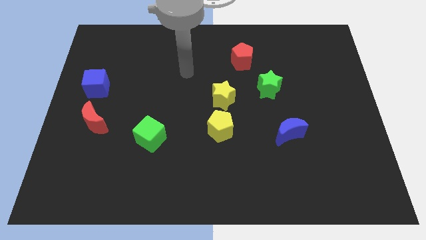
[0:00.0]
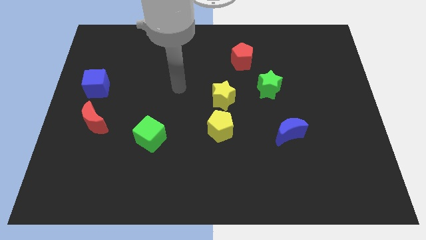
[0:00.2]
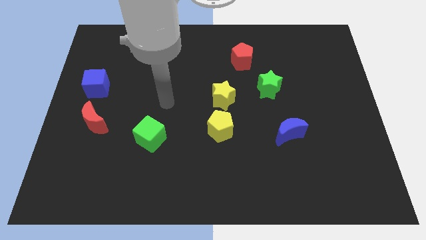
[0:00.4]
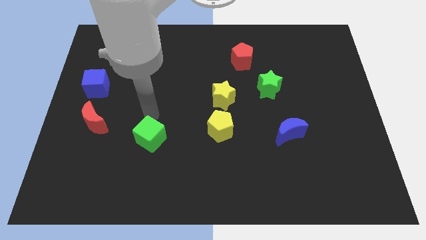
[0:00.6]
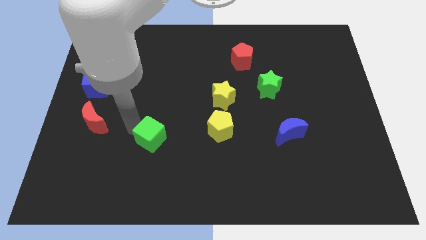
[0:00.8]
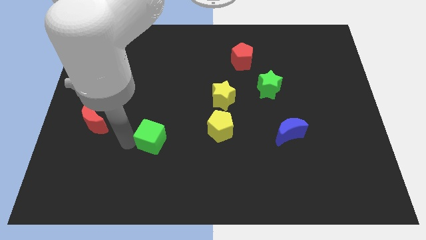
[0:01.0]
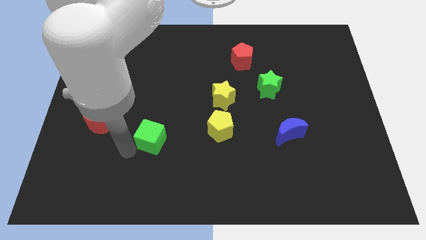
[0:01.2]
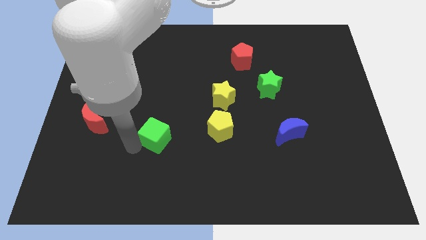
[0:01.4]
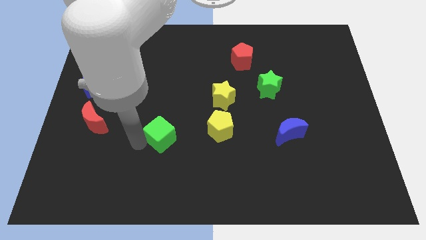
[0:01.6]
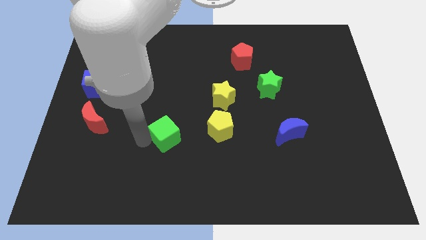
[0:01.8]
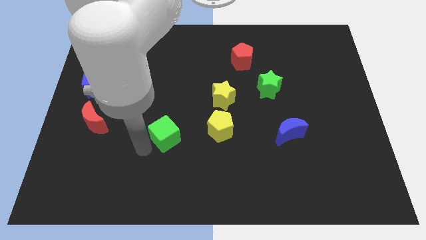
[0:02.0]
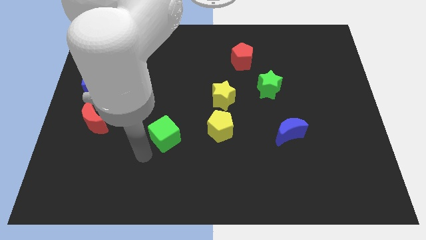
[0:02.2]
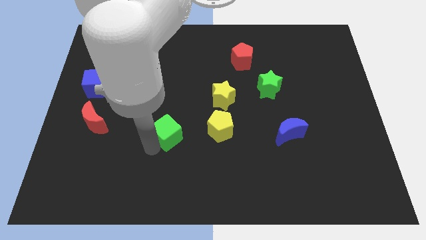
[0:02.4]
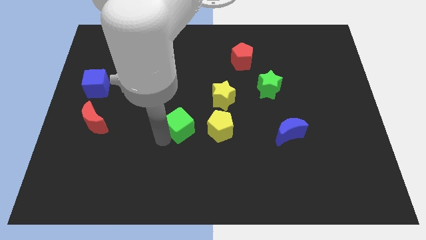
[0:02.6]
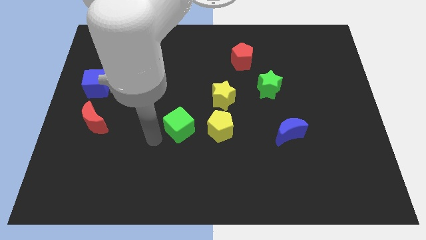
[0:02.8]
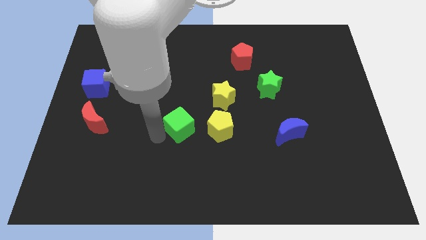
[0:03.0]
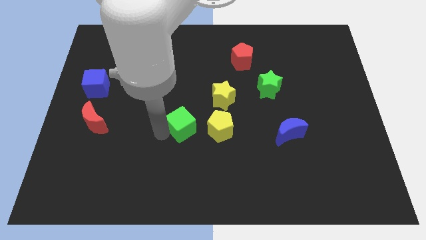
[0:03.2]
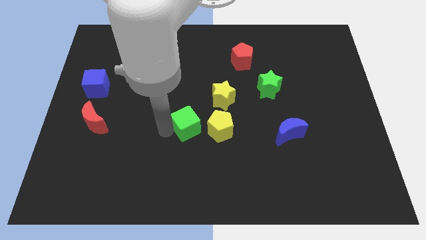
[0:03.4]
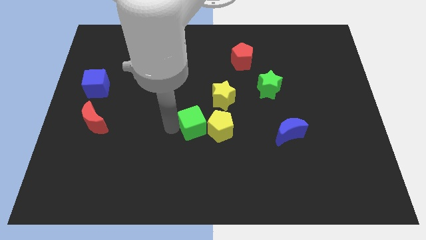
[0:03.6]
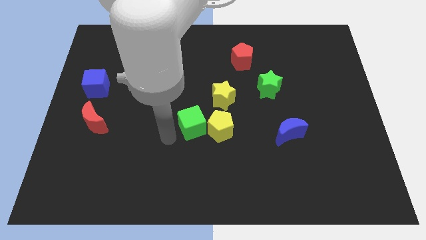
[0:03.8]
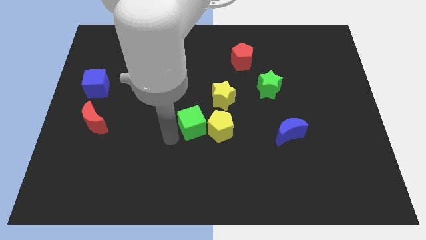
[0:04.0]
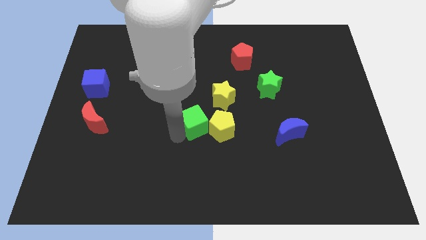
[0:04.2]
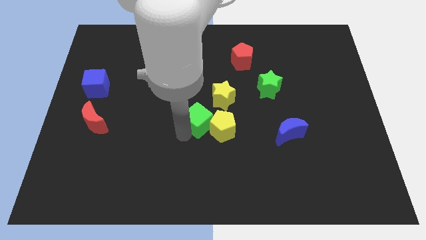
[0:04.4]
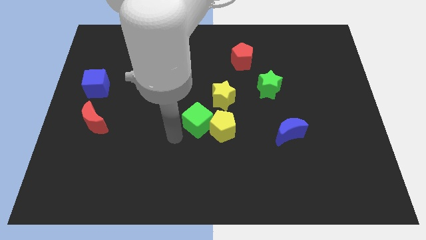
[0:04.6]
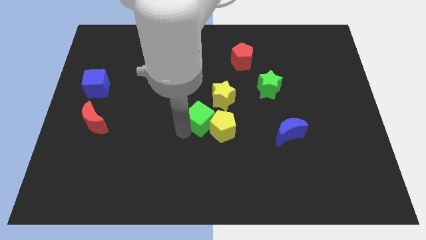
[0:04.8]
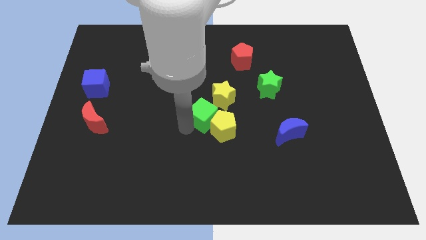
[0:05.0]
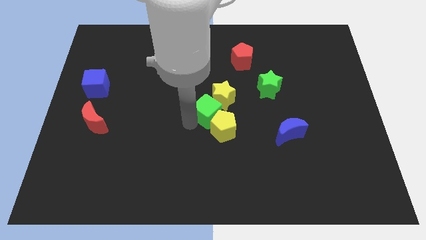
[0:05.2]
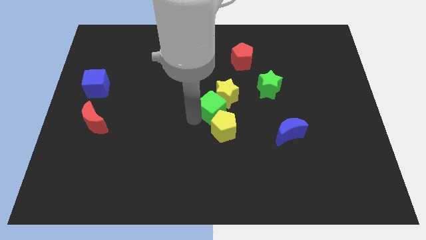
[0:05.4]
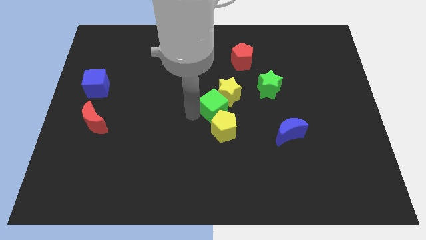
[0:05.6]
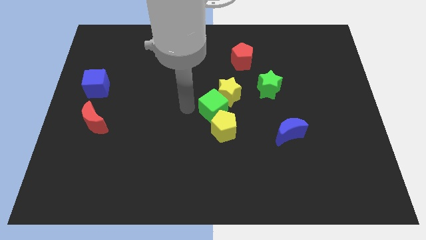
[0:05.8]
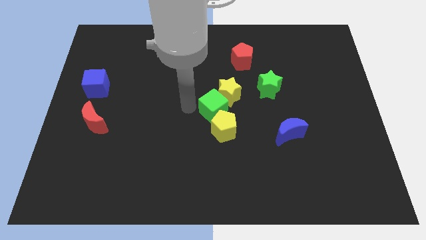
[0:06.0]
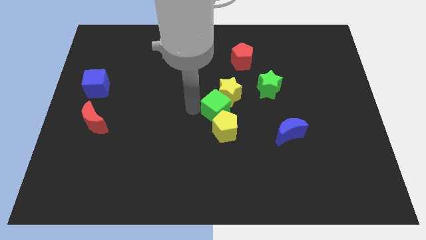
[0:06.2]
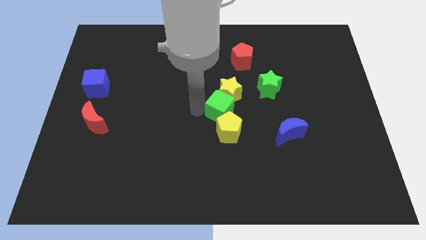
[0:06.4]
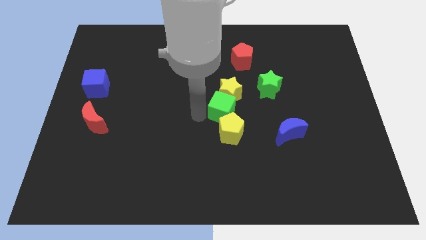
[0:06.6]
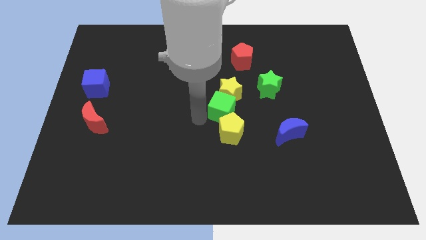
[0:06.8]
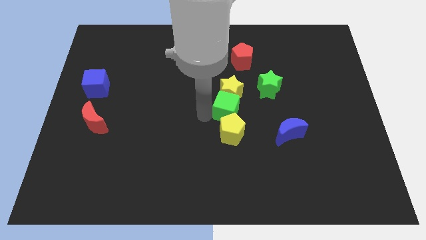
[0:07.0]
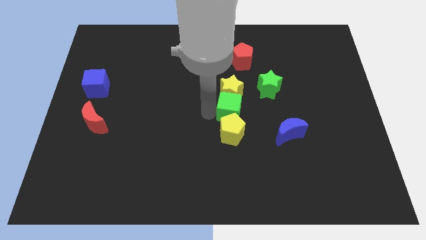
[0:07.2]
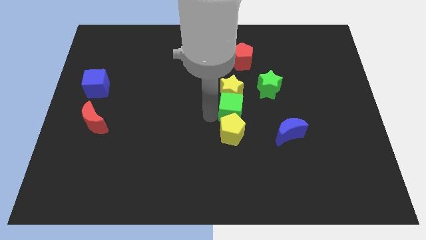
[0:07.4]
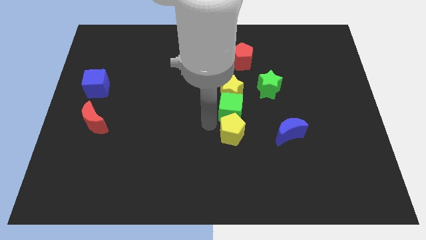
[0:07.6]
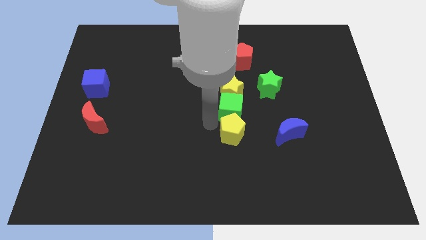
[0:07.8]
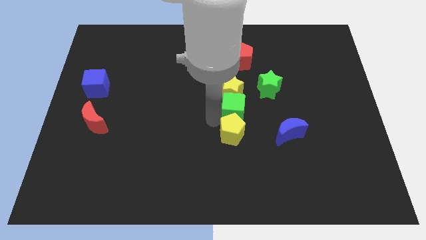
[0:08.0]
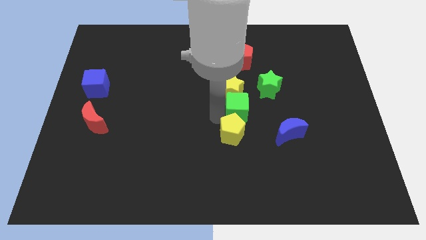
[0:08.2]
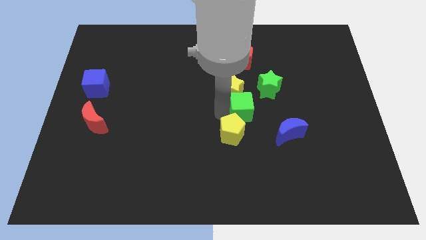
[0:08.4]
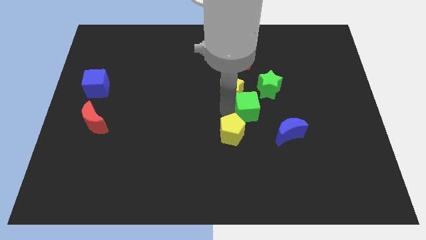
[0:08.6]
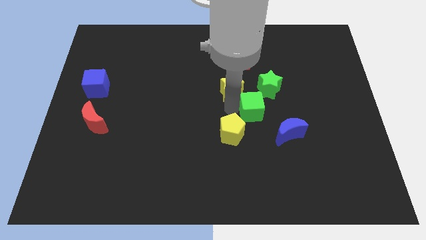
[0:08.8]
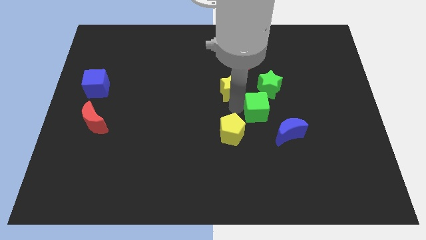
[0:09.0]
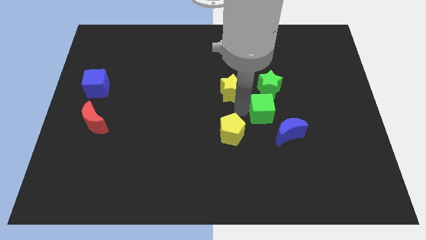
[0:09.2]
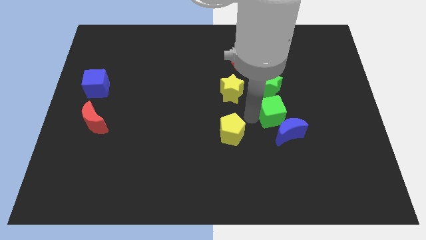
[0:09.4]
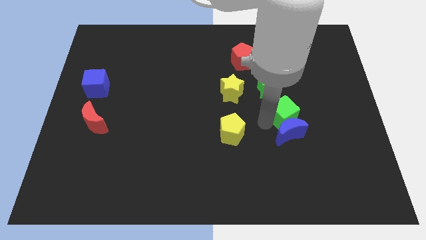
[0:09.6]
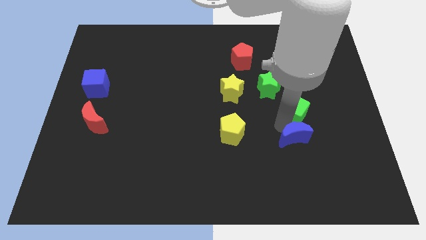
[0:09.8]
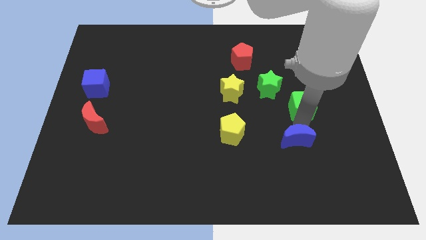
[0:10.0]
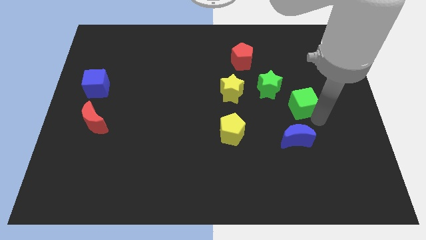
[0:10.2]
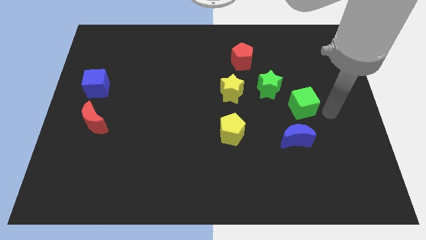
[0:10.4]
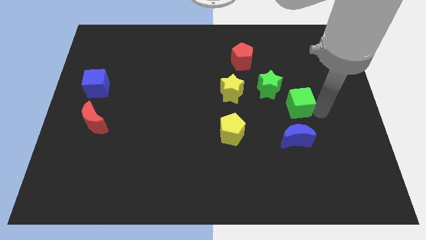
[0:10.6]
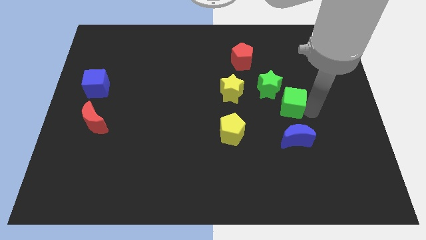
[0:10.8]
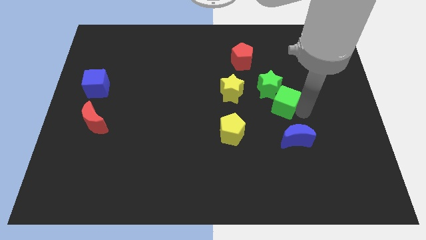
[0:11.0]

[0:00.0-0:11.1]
push the green cube close to the green star

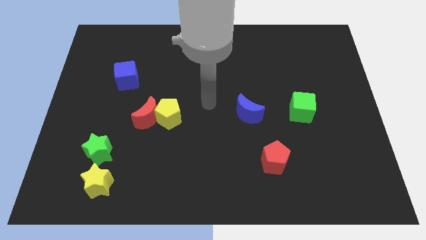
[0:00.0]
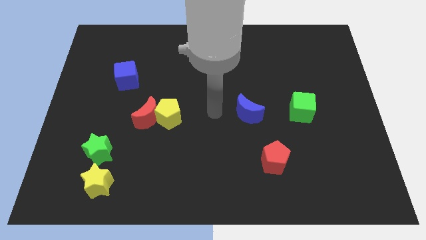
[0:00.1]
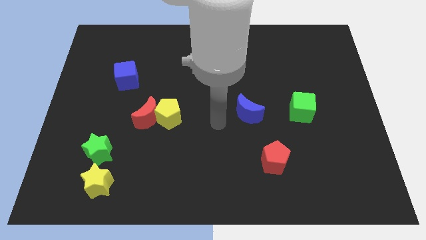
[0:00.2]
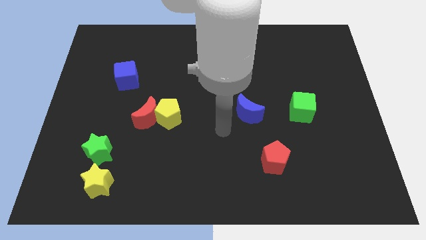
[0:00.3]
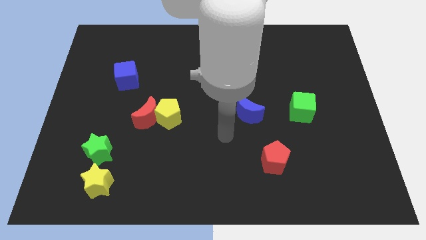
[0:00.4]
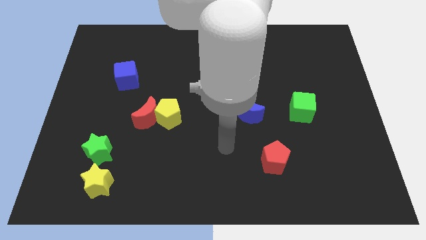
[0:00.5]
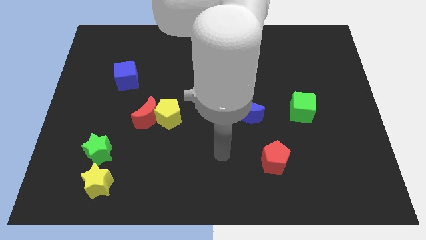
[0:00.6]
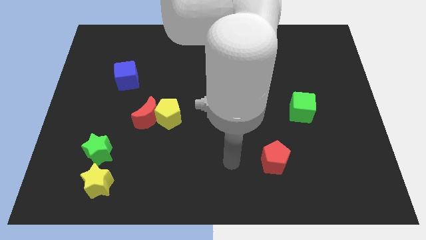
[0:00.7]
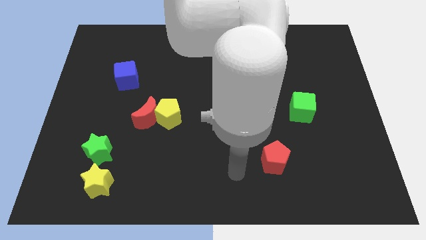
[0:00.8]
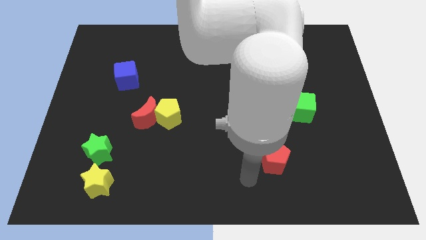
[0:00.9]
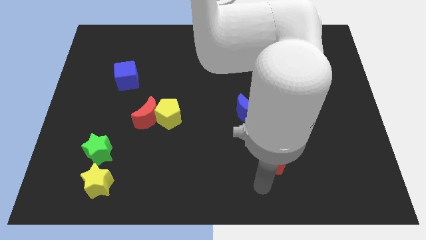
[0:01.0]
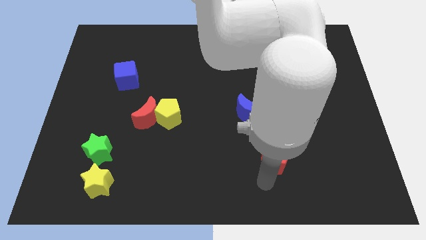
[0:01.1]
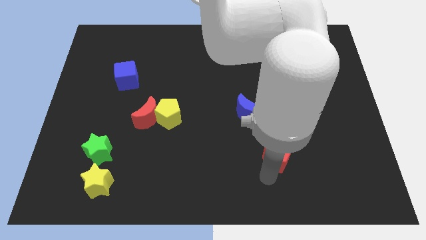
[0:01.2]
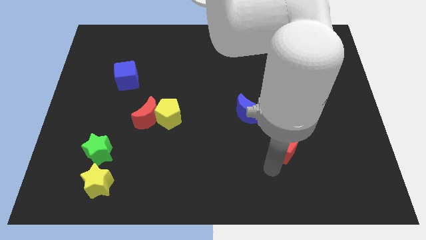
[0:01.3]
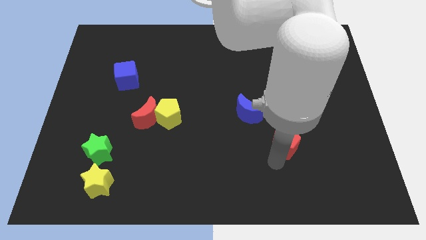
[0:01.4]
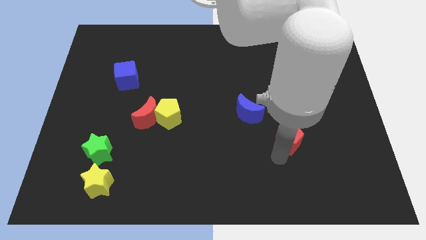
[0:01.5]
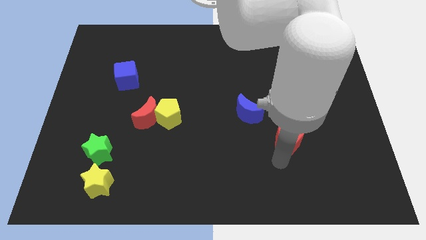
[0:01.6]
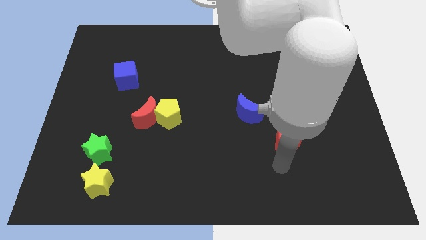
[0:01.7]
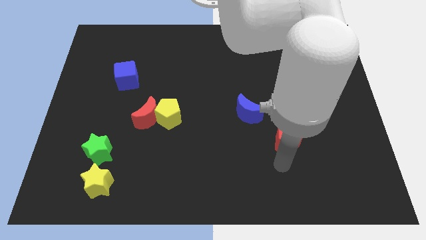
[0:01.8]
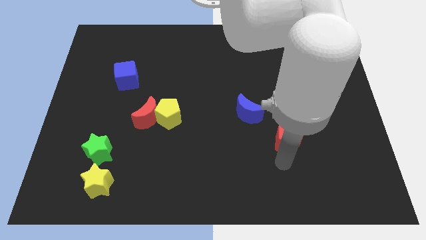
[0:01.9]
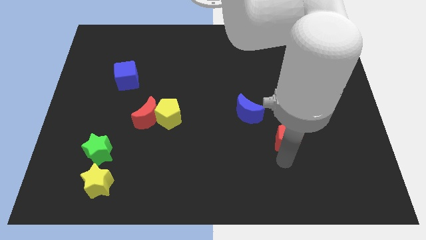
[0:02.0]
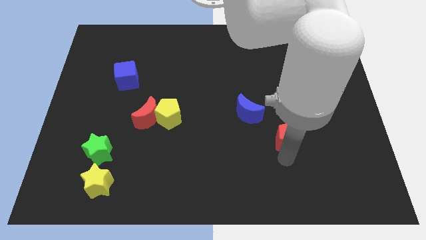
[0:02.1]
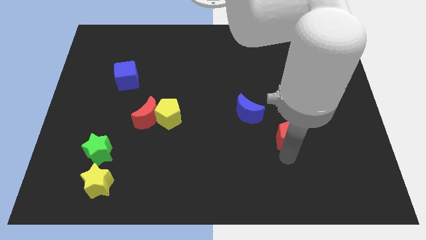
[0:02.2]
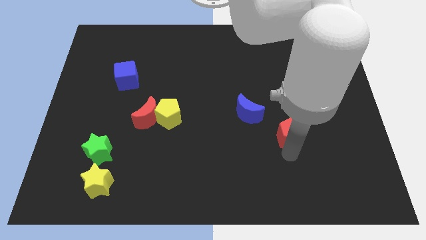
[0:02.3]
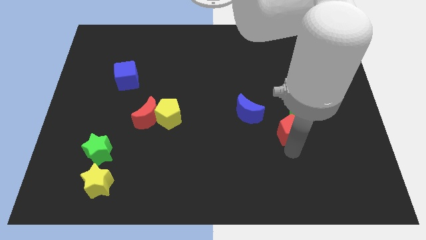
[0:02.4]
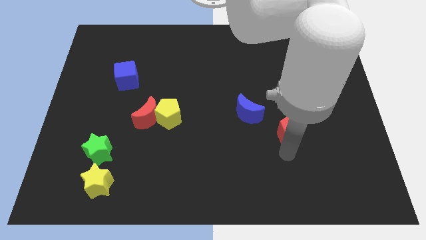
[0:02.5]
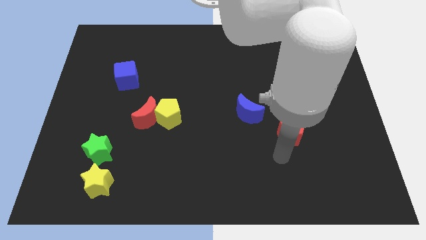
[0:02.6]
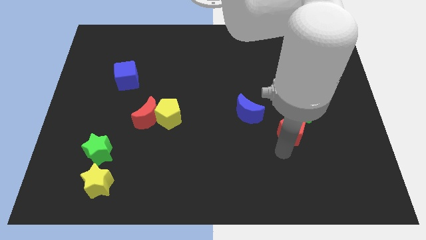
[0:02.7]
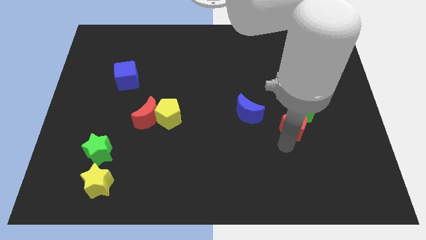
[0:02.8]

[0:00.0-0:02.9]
put the red pentagon next to the green cube
